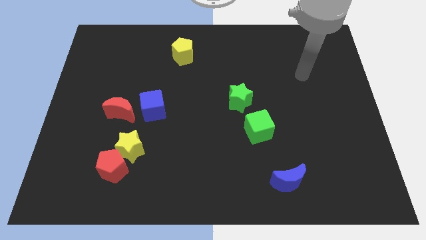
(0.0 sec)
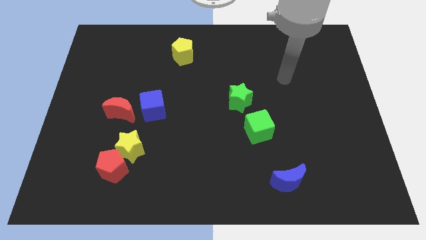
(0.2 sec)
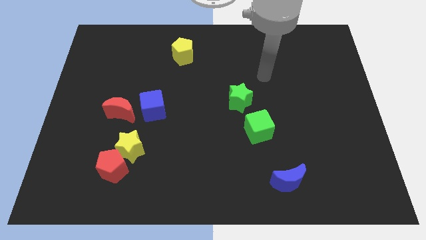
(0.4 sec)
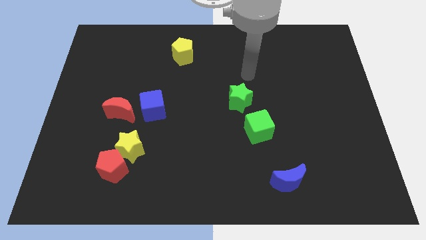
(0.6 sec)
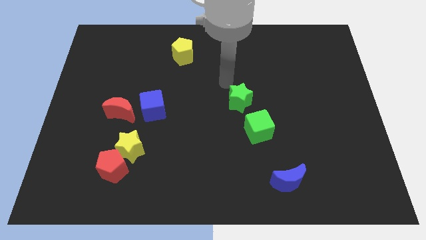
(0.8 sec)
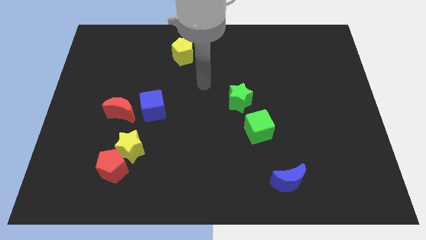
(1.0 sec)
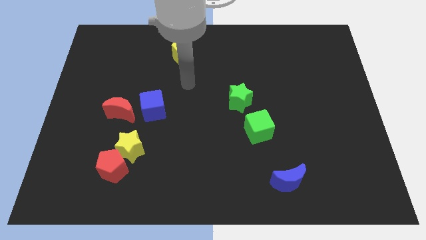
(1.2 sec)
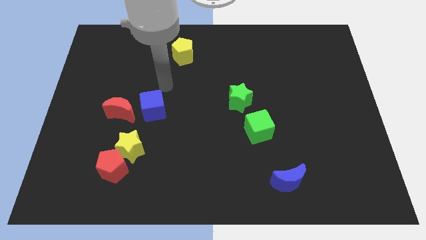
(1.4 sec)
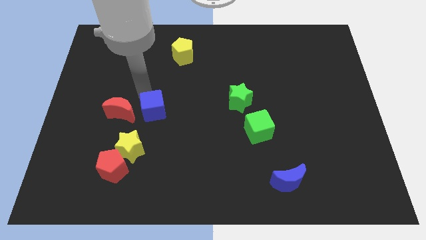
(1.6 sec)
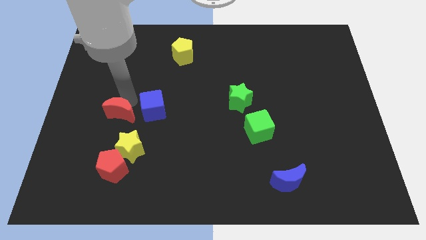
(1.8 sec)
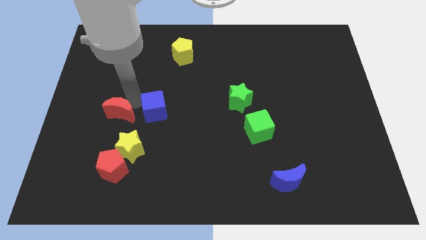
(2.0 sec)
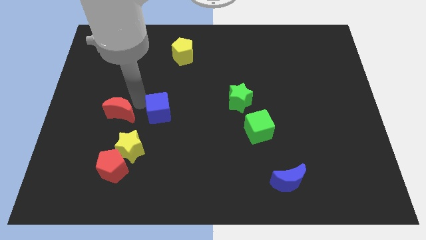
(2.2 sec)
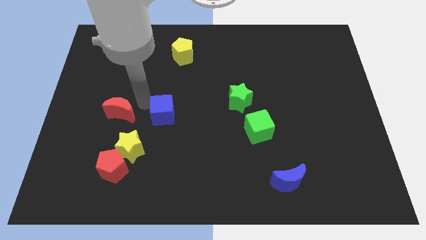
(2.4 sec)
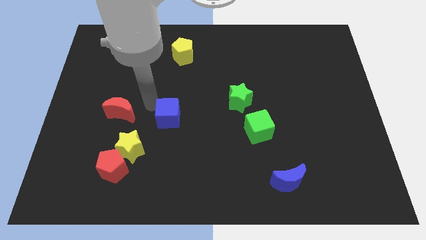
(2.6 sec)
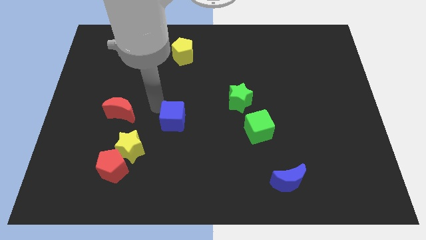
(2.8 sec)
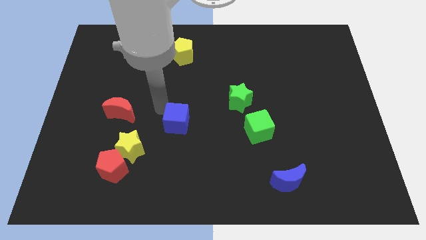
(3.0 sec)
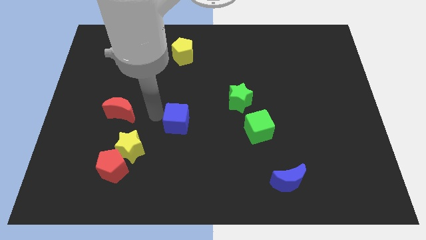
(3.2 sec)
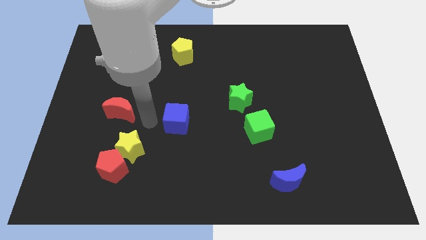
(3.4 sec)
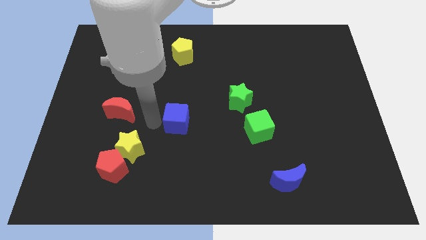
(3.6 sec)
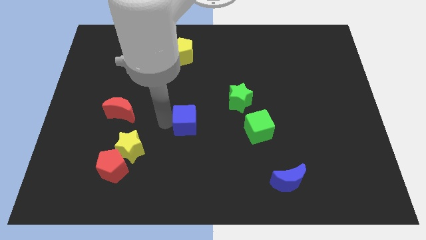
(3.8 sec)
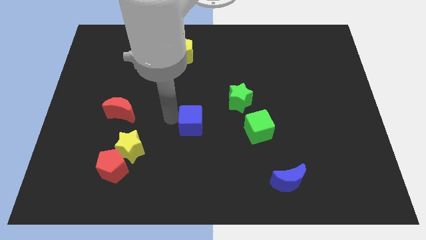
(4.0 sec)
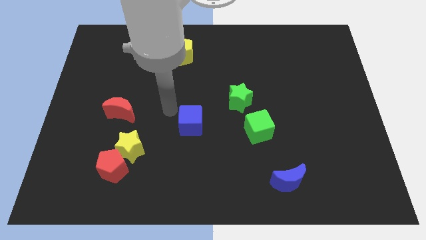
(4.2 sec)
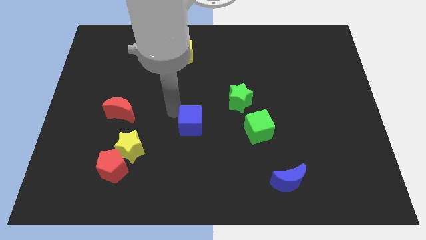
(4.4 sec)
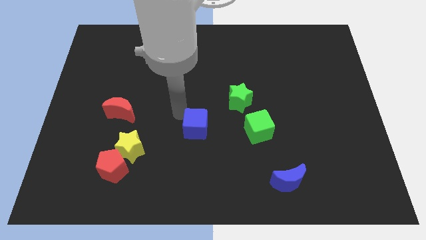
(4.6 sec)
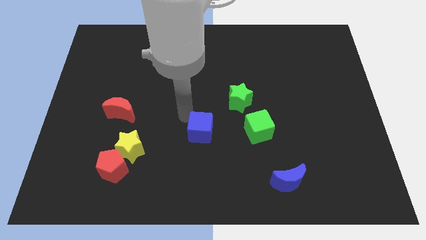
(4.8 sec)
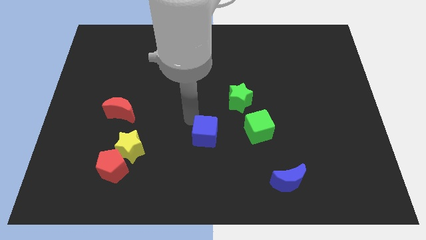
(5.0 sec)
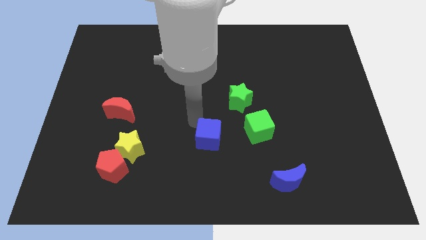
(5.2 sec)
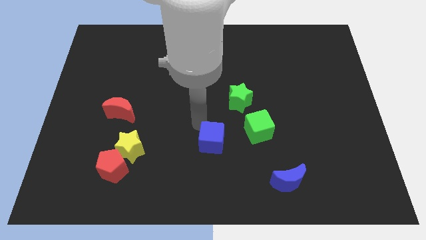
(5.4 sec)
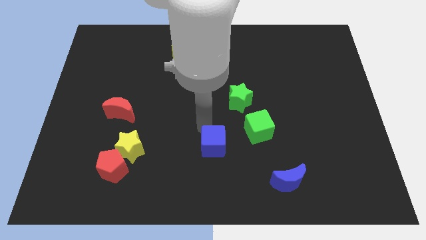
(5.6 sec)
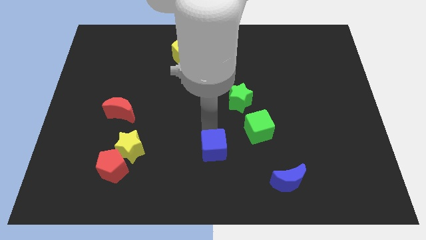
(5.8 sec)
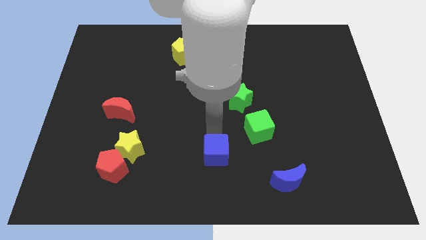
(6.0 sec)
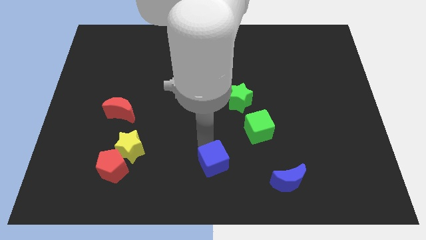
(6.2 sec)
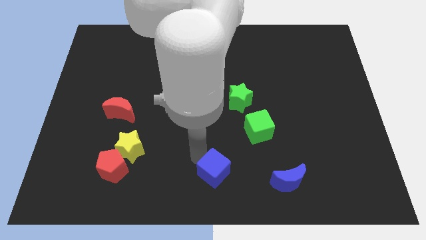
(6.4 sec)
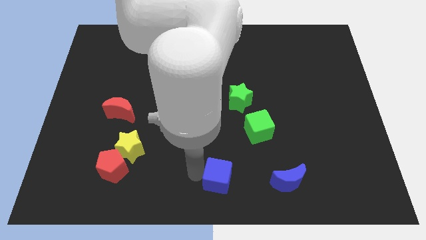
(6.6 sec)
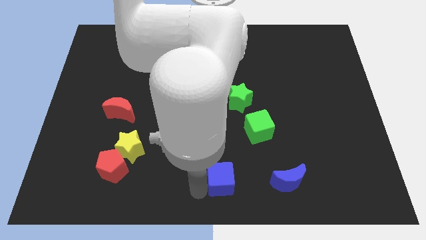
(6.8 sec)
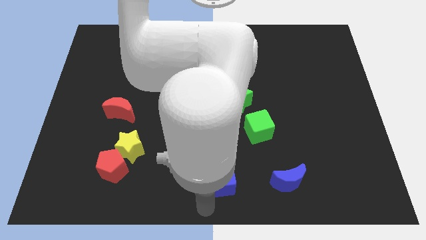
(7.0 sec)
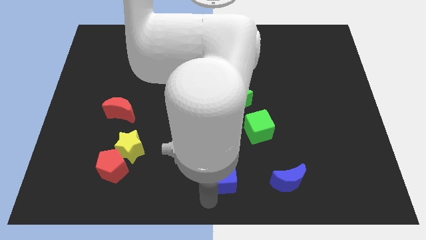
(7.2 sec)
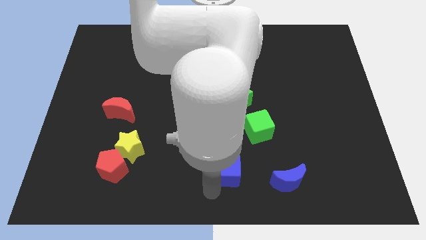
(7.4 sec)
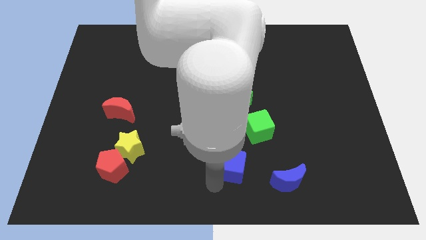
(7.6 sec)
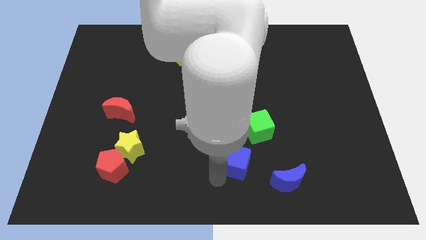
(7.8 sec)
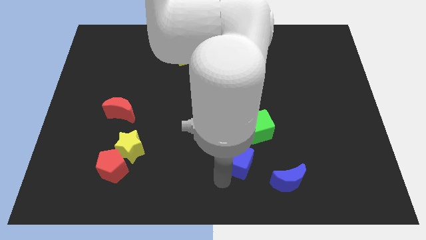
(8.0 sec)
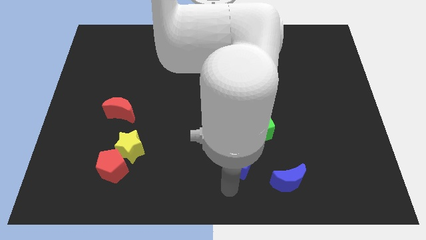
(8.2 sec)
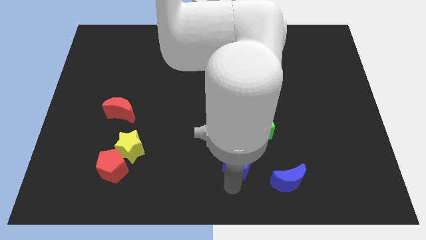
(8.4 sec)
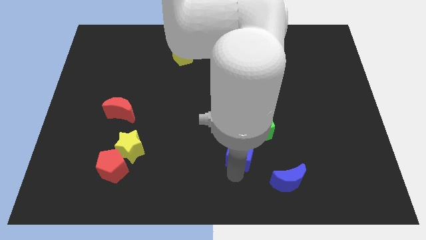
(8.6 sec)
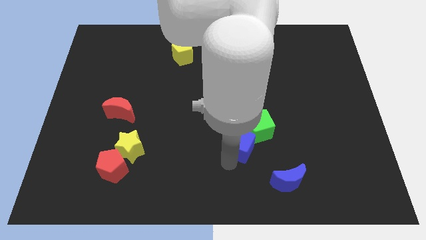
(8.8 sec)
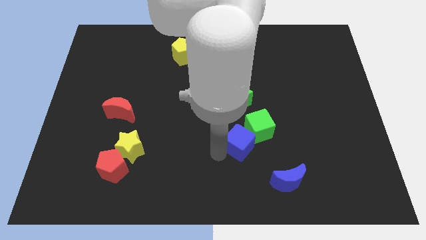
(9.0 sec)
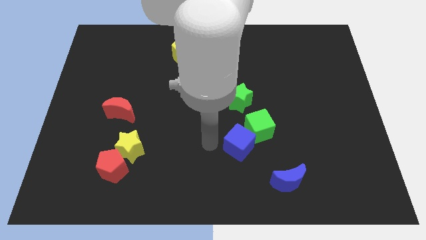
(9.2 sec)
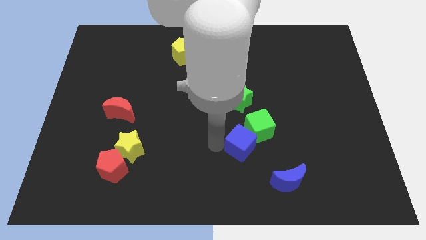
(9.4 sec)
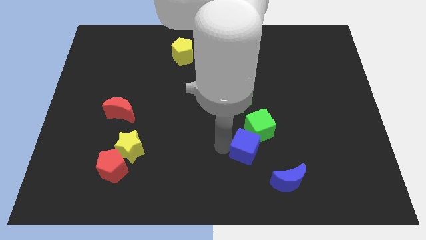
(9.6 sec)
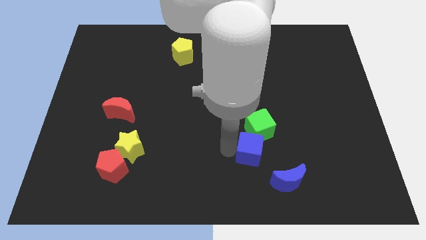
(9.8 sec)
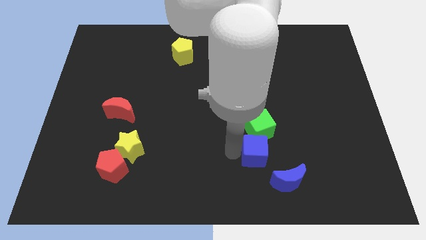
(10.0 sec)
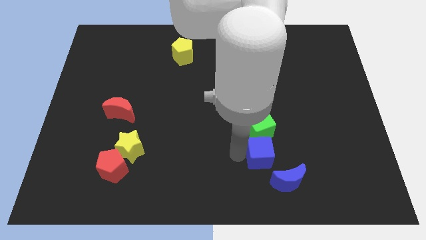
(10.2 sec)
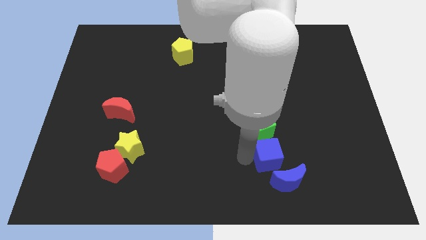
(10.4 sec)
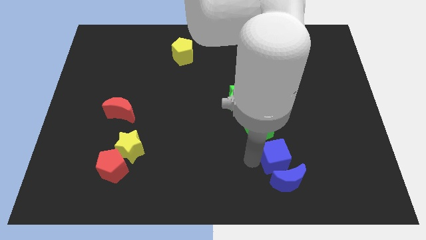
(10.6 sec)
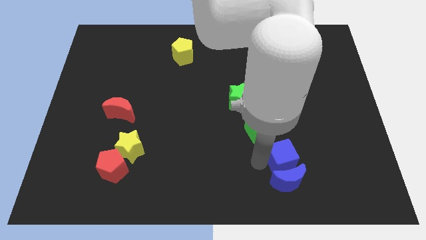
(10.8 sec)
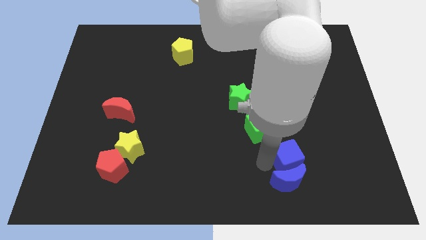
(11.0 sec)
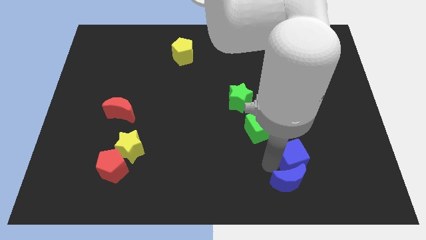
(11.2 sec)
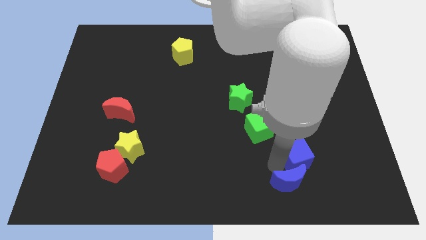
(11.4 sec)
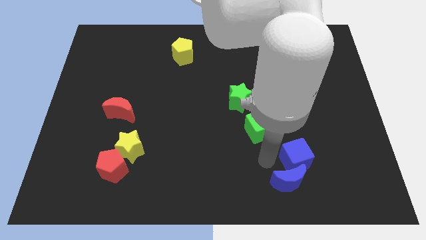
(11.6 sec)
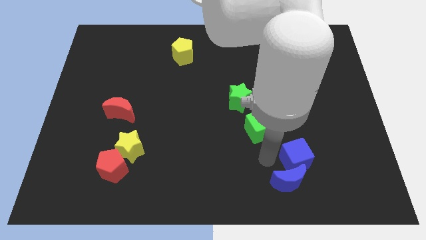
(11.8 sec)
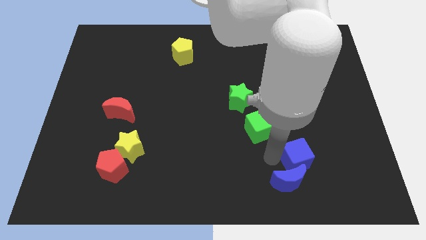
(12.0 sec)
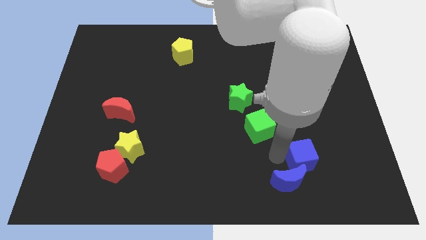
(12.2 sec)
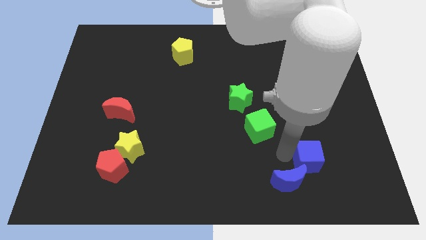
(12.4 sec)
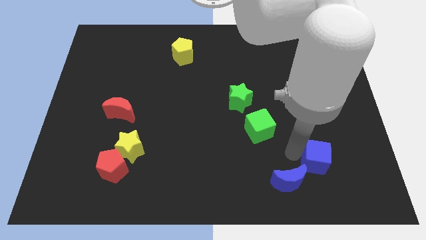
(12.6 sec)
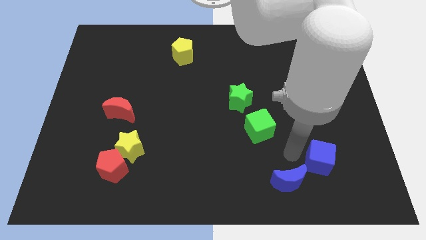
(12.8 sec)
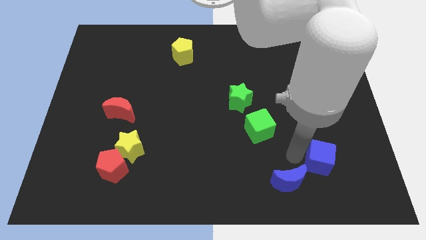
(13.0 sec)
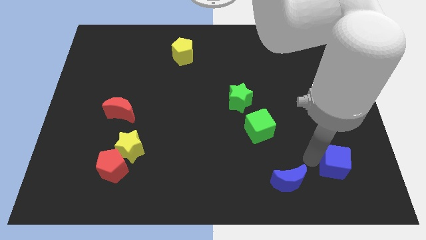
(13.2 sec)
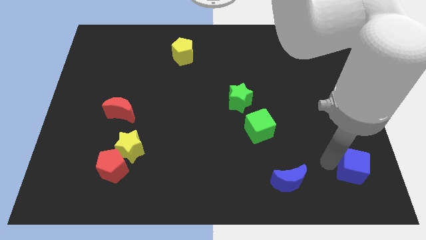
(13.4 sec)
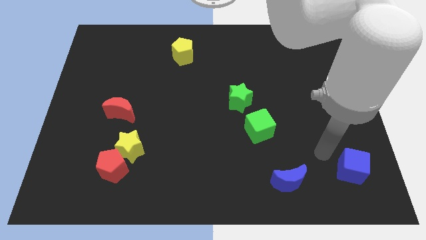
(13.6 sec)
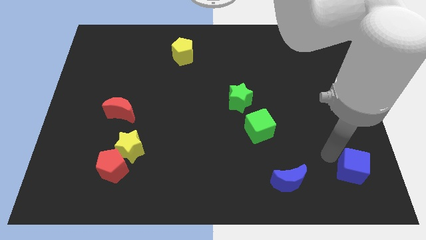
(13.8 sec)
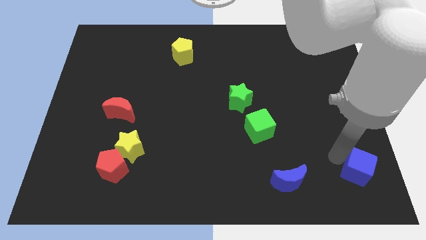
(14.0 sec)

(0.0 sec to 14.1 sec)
move the blue cube to the bottom right of the board
